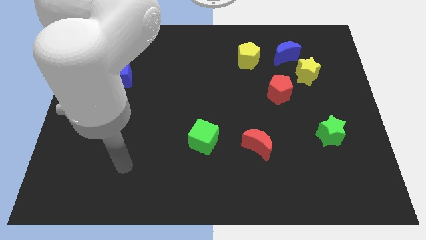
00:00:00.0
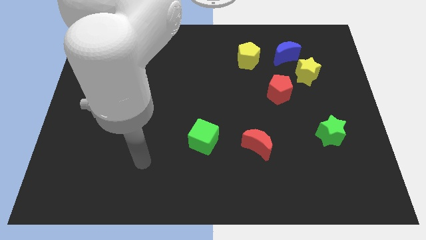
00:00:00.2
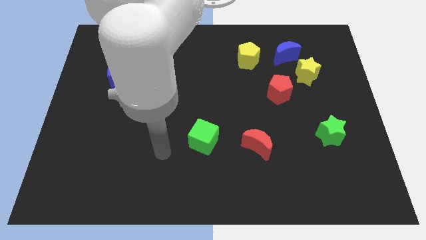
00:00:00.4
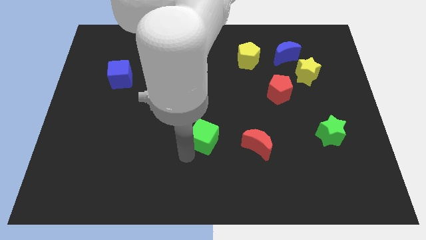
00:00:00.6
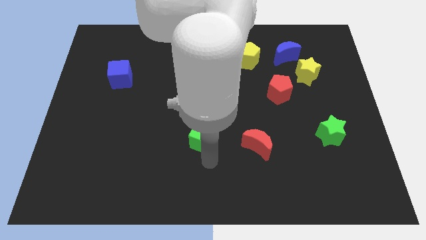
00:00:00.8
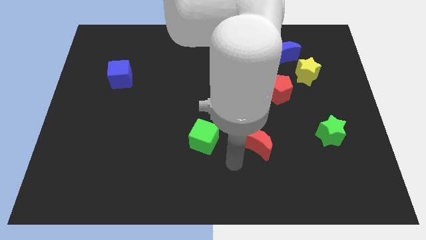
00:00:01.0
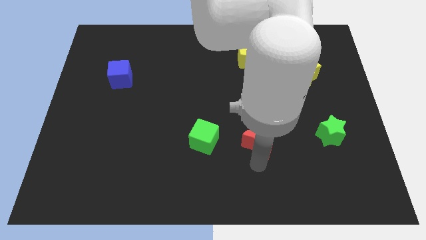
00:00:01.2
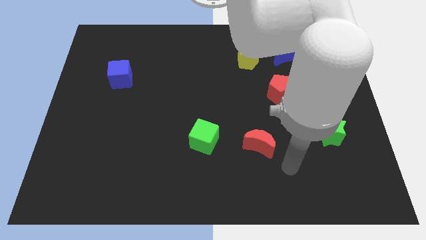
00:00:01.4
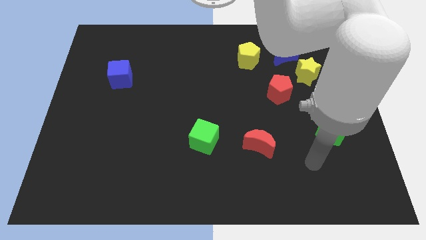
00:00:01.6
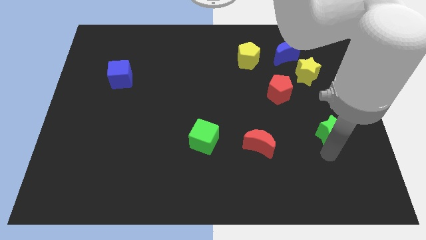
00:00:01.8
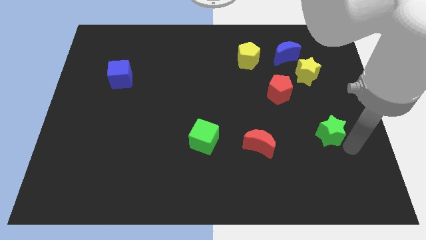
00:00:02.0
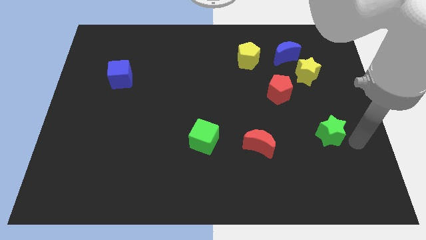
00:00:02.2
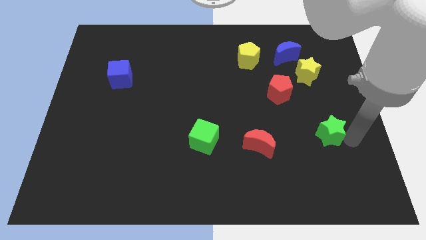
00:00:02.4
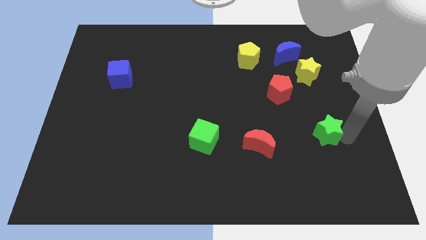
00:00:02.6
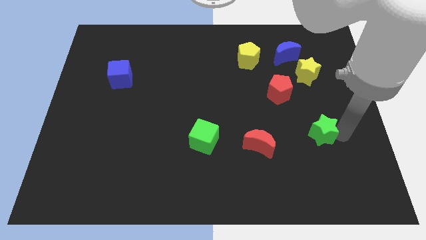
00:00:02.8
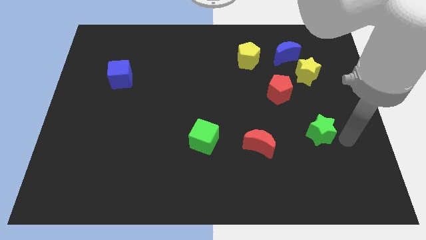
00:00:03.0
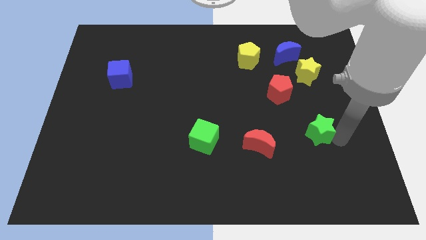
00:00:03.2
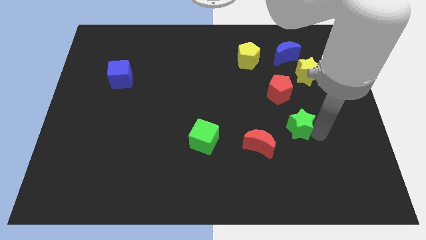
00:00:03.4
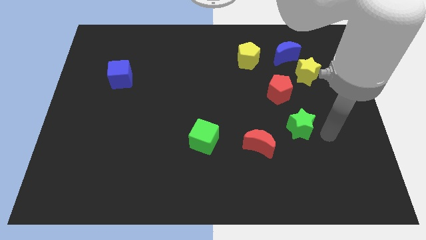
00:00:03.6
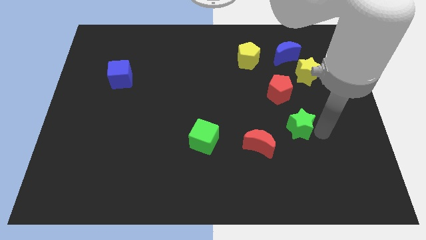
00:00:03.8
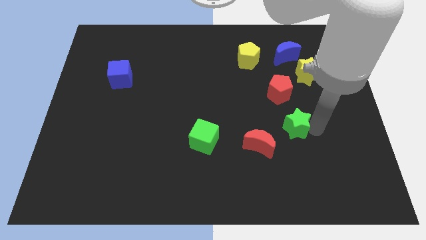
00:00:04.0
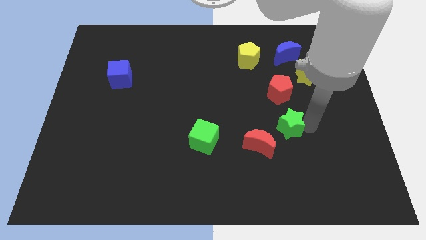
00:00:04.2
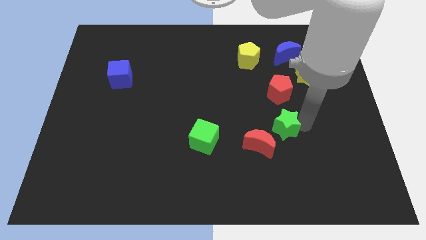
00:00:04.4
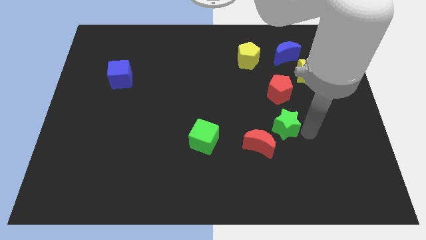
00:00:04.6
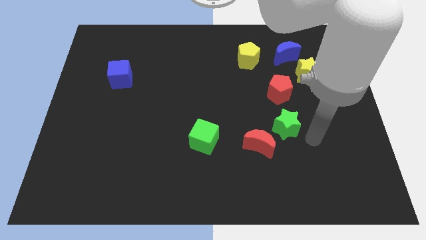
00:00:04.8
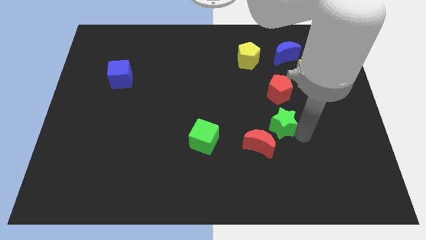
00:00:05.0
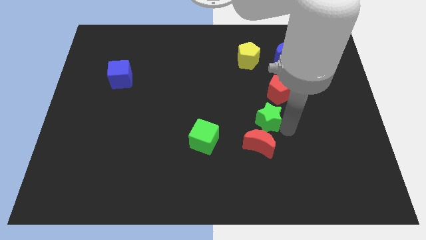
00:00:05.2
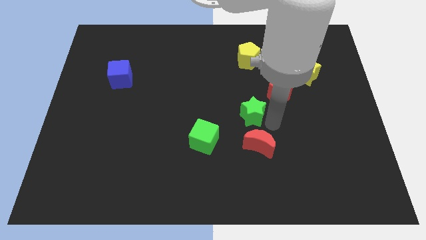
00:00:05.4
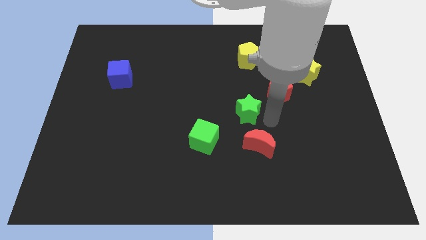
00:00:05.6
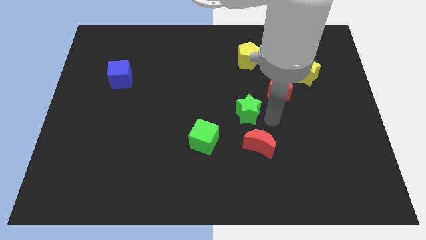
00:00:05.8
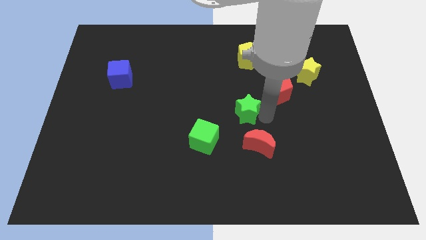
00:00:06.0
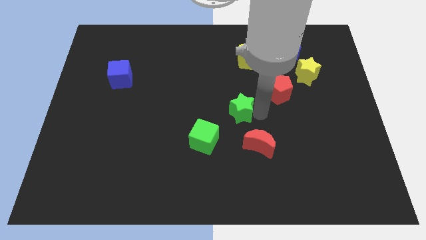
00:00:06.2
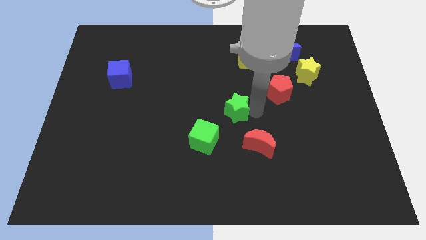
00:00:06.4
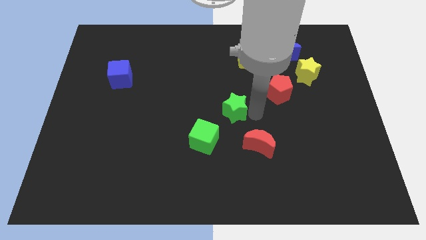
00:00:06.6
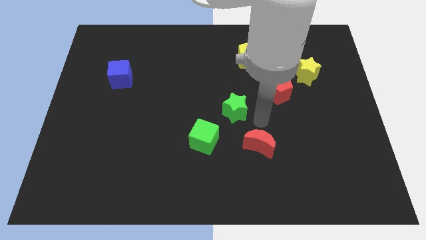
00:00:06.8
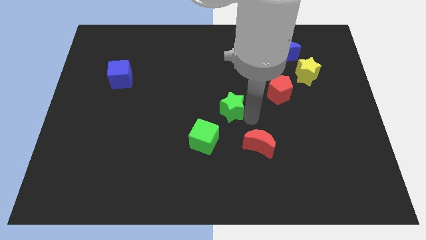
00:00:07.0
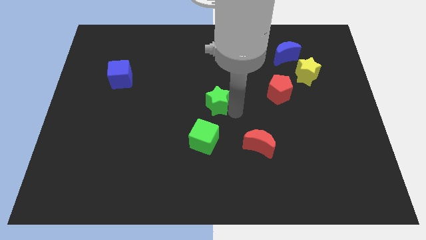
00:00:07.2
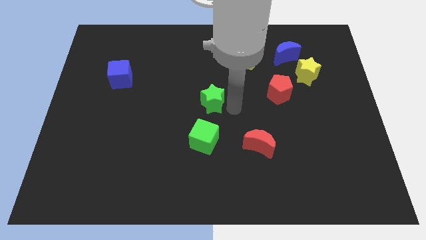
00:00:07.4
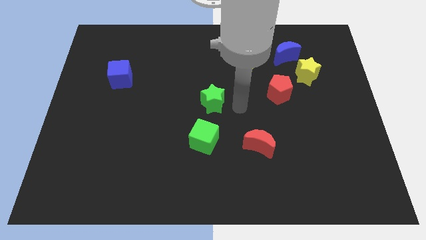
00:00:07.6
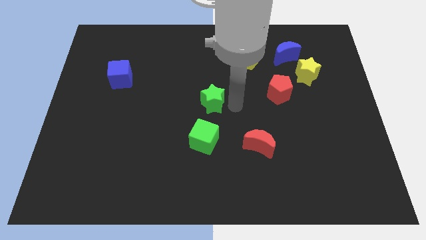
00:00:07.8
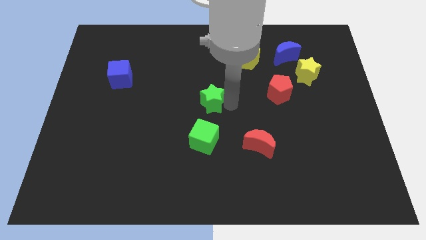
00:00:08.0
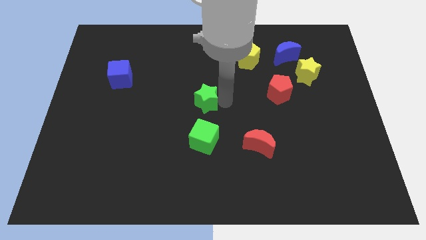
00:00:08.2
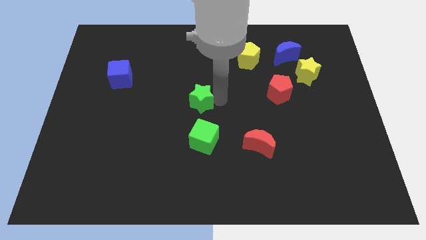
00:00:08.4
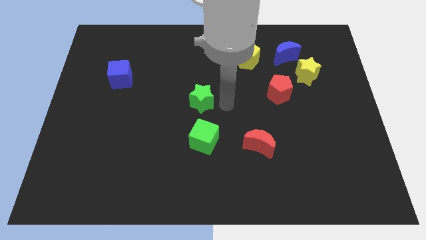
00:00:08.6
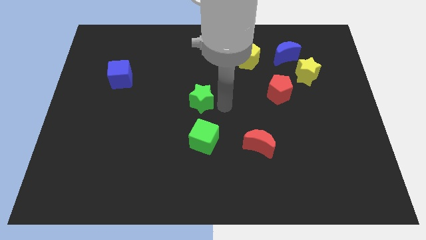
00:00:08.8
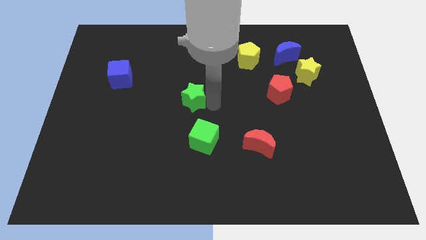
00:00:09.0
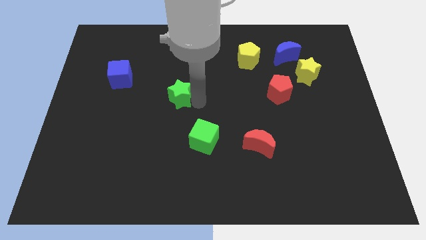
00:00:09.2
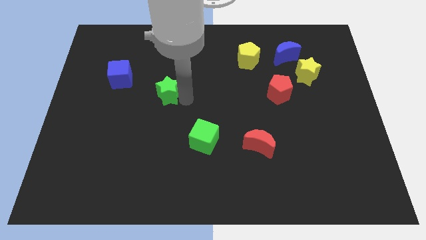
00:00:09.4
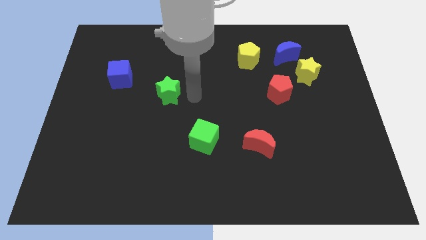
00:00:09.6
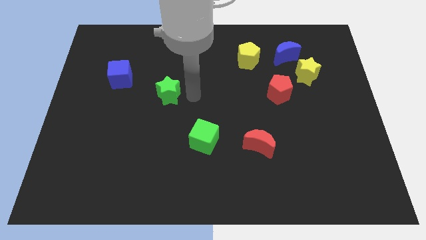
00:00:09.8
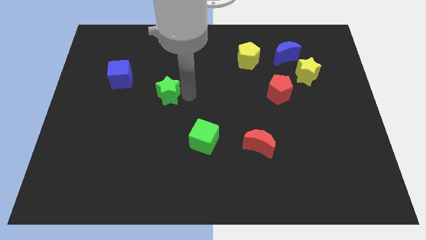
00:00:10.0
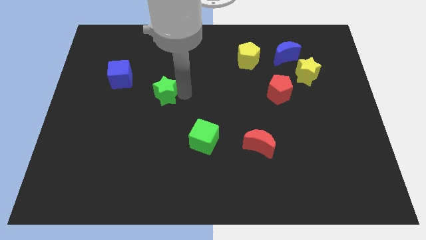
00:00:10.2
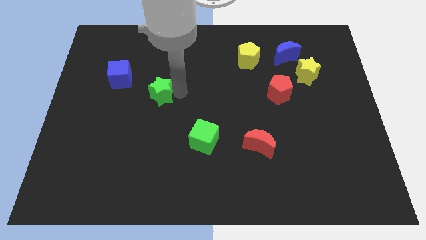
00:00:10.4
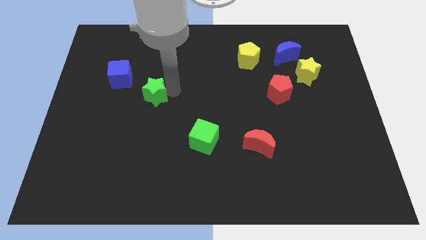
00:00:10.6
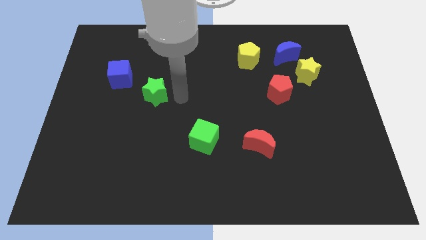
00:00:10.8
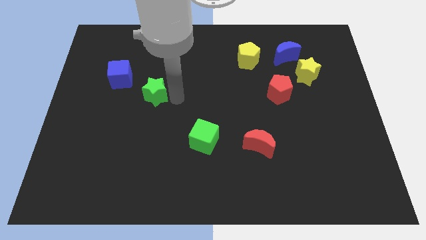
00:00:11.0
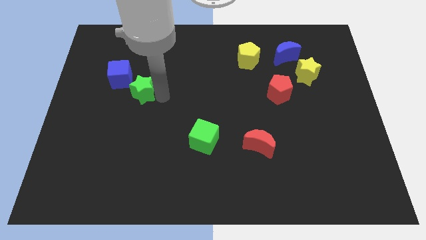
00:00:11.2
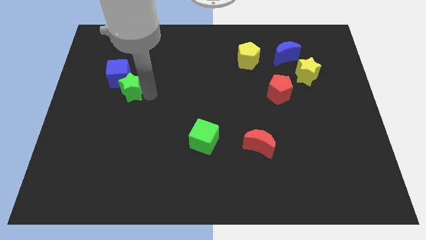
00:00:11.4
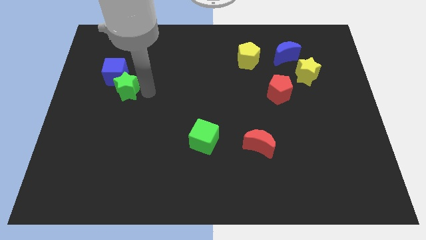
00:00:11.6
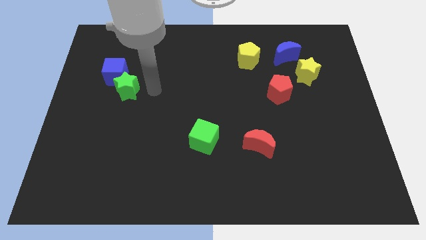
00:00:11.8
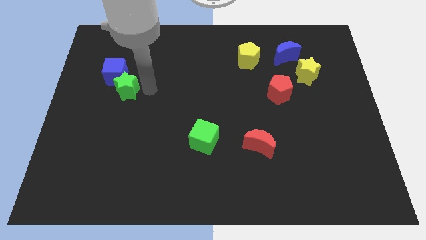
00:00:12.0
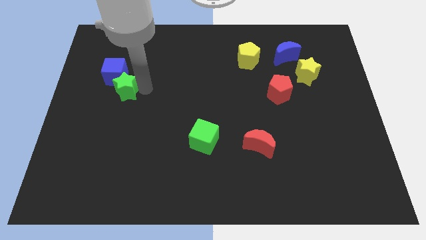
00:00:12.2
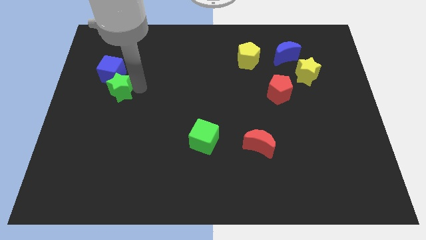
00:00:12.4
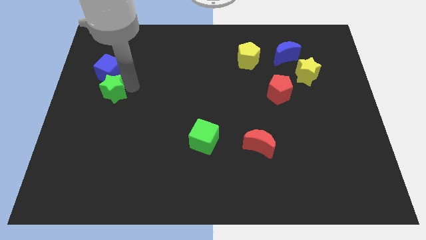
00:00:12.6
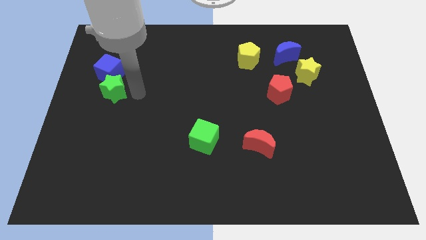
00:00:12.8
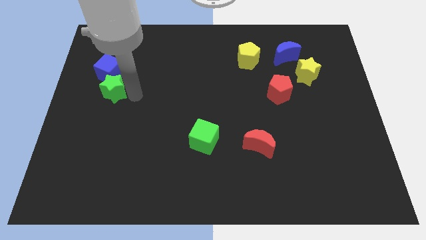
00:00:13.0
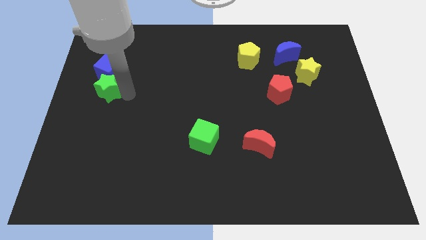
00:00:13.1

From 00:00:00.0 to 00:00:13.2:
move the green star to the bottom left of the blue cube
